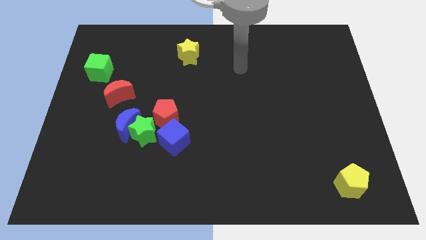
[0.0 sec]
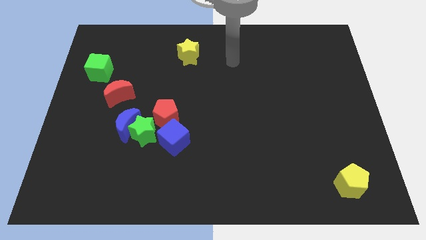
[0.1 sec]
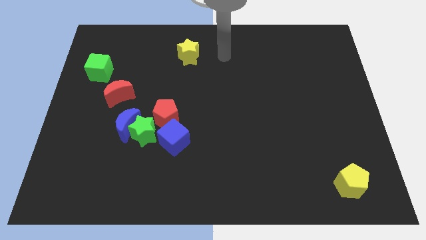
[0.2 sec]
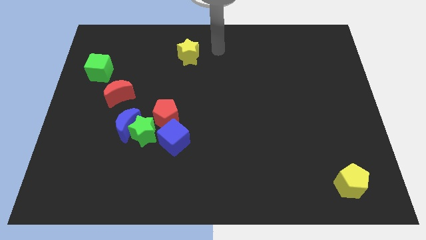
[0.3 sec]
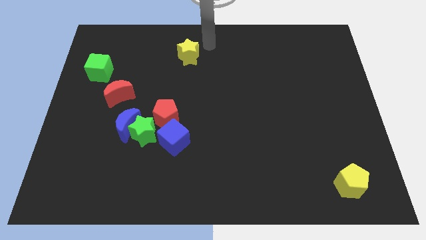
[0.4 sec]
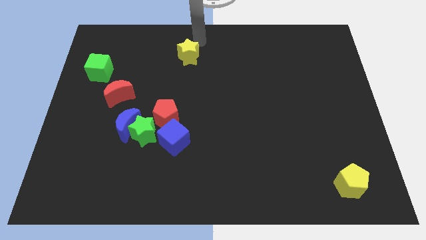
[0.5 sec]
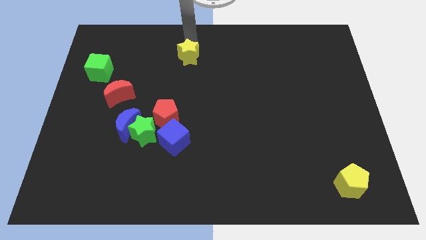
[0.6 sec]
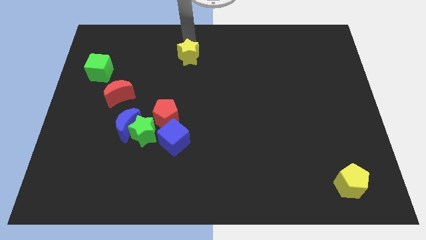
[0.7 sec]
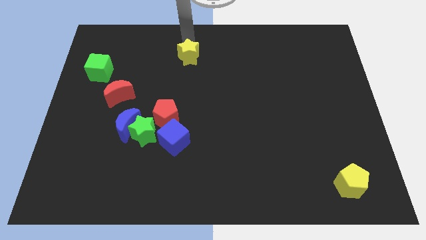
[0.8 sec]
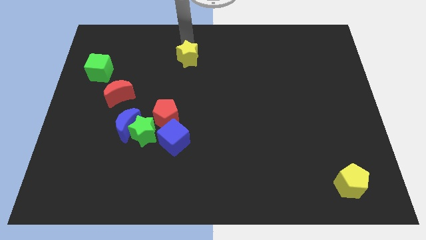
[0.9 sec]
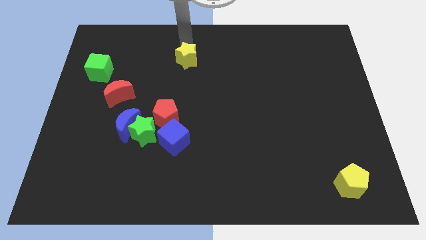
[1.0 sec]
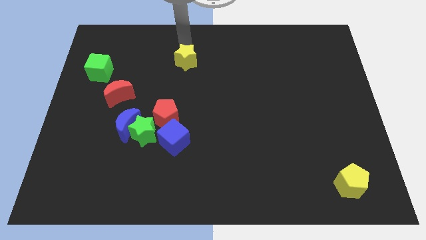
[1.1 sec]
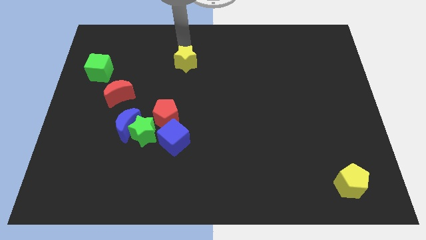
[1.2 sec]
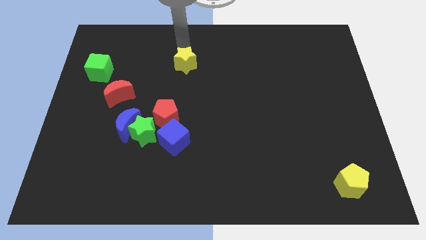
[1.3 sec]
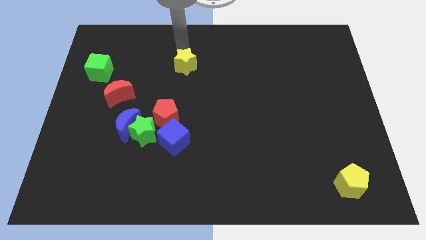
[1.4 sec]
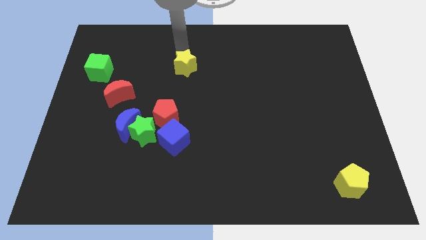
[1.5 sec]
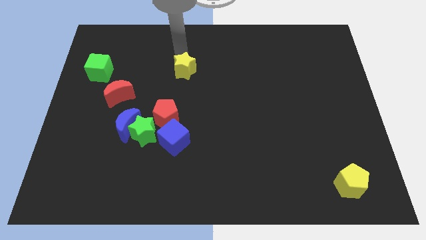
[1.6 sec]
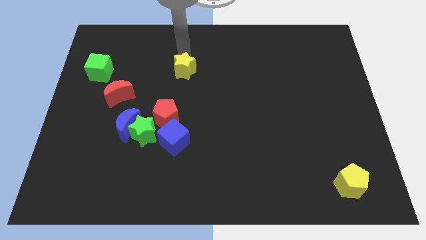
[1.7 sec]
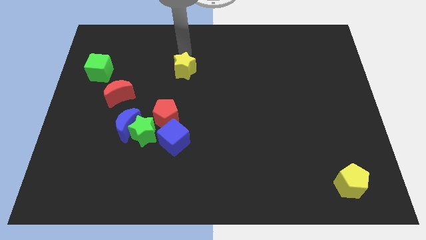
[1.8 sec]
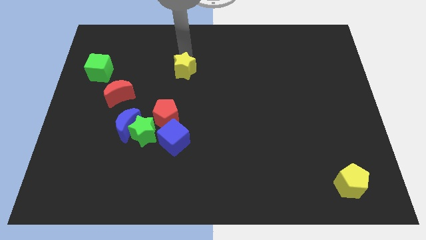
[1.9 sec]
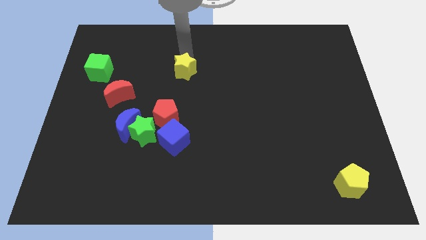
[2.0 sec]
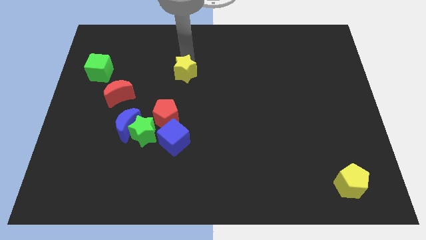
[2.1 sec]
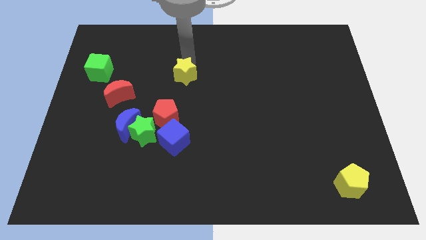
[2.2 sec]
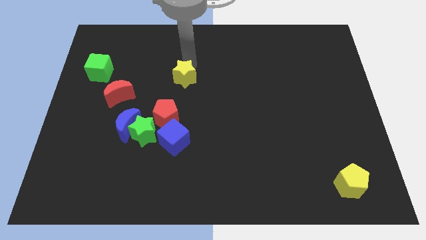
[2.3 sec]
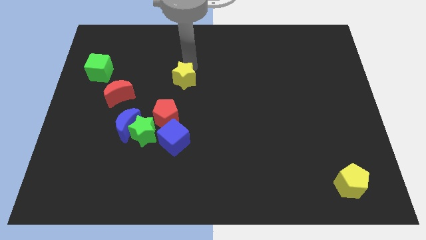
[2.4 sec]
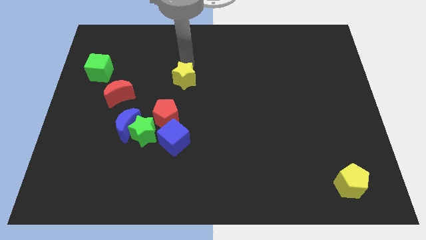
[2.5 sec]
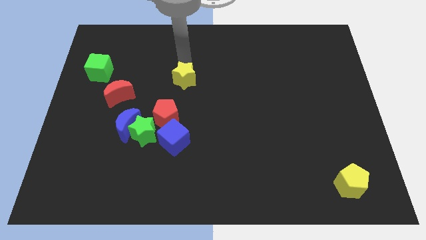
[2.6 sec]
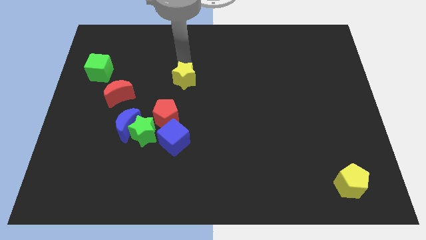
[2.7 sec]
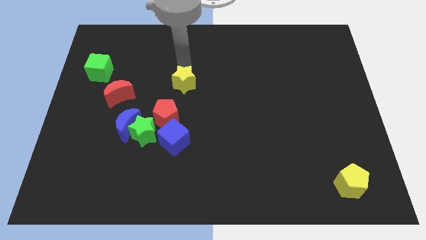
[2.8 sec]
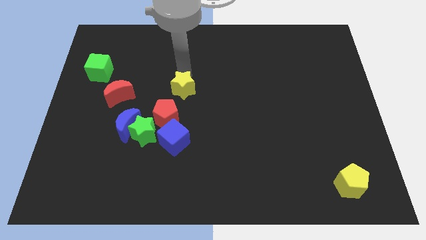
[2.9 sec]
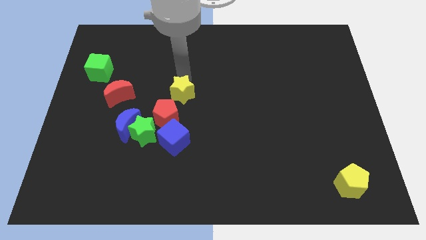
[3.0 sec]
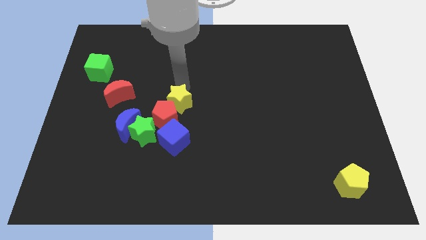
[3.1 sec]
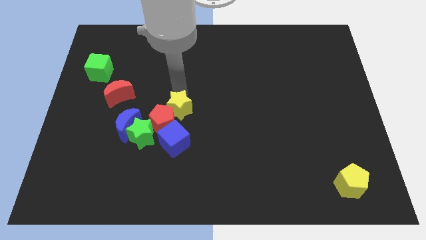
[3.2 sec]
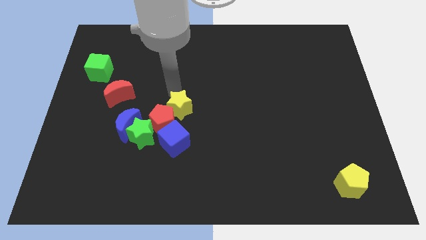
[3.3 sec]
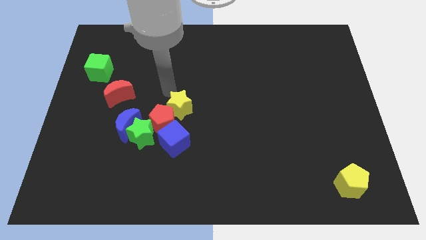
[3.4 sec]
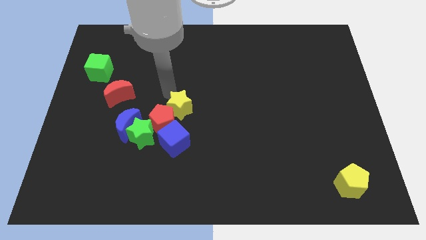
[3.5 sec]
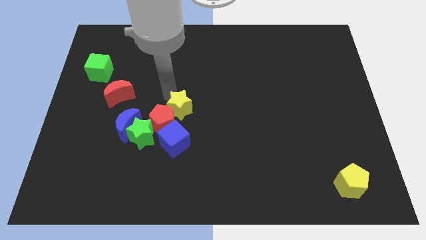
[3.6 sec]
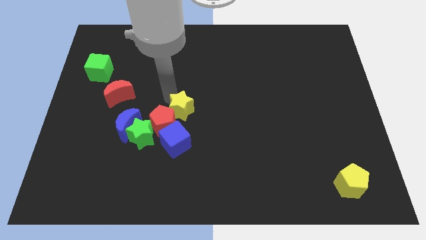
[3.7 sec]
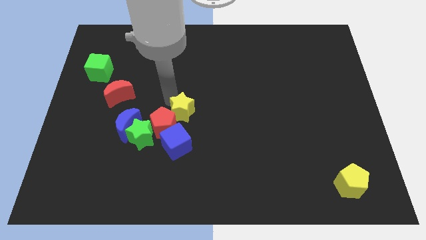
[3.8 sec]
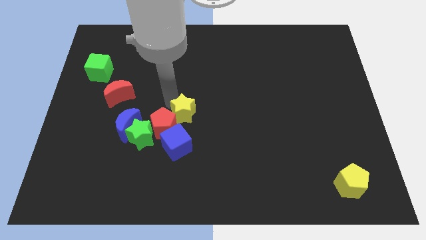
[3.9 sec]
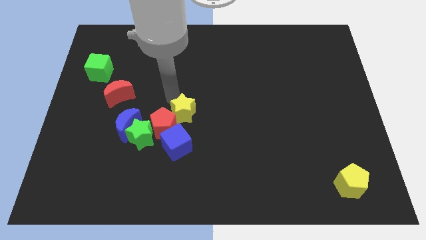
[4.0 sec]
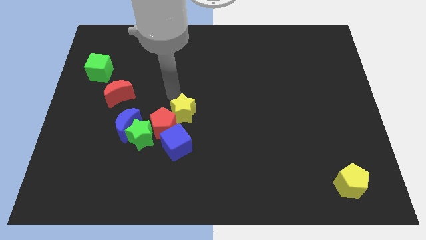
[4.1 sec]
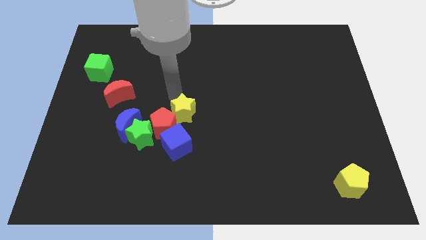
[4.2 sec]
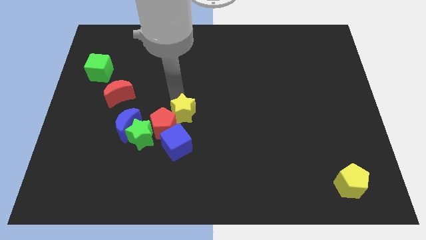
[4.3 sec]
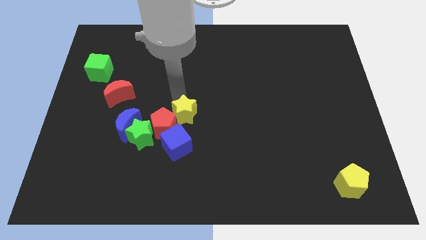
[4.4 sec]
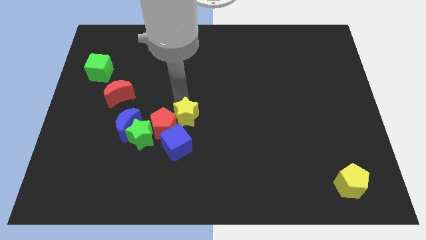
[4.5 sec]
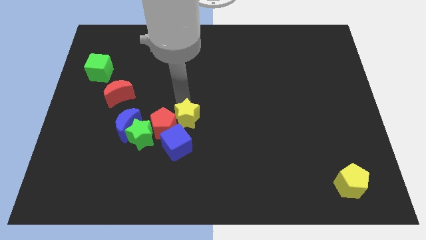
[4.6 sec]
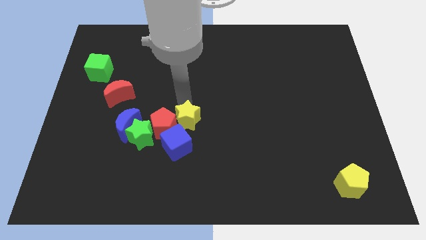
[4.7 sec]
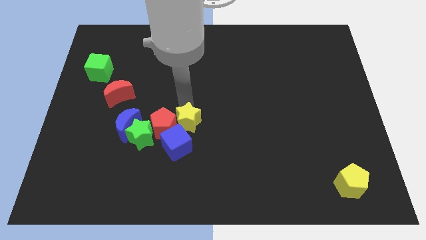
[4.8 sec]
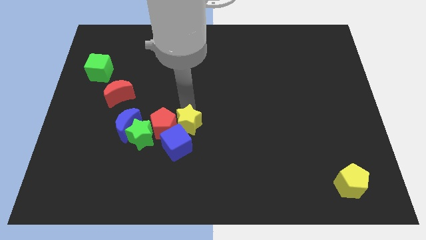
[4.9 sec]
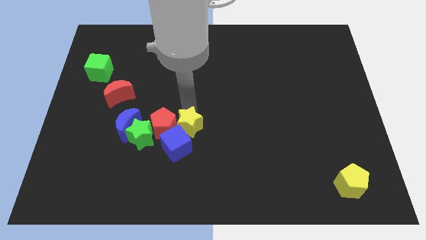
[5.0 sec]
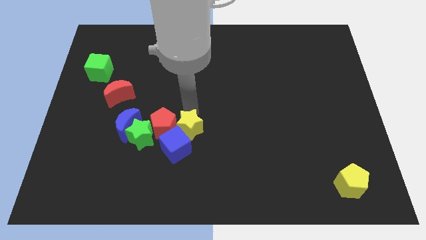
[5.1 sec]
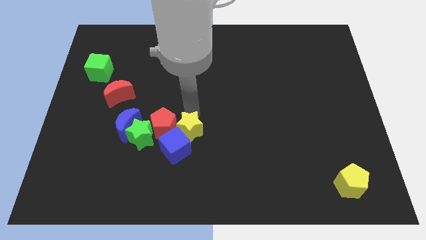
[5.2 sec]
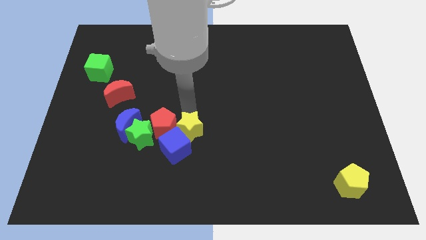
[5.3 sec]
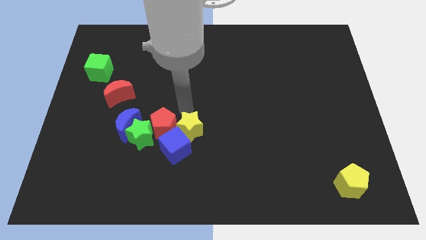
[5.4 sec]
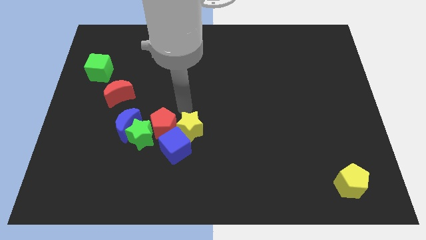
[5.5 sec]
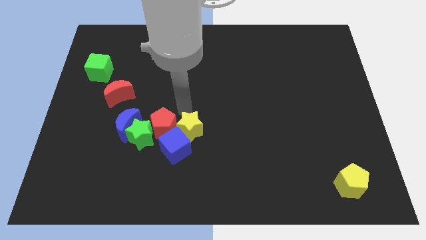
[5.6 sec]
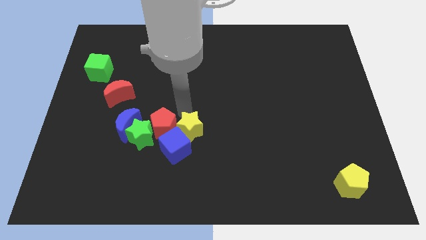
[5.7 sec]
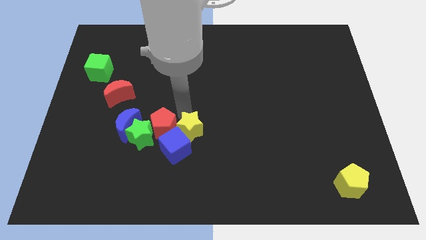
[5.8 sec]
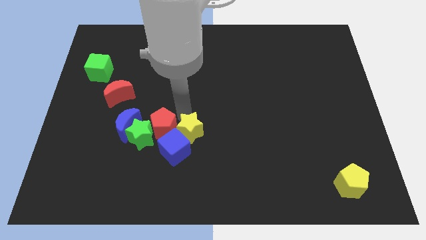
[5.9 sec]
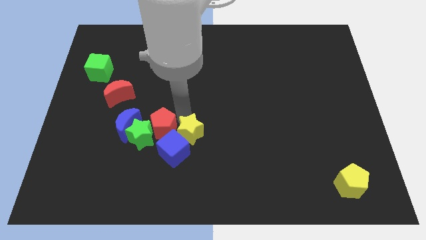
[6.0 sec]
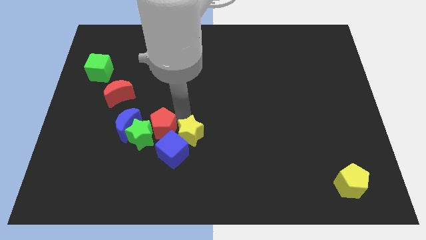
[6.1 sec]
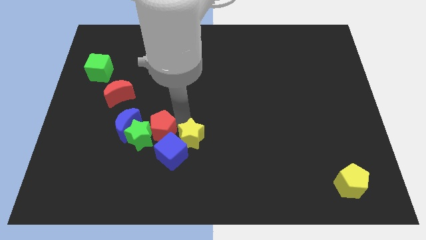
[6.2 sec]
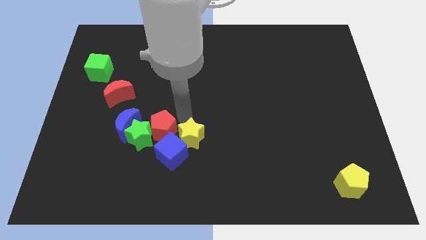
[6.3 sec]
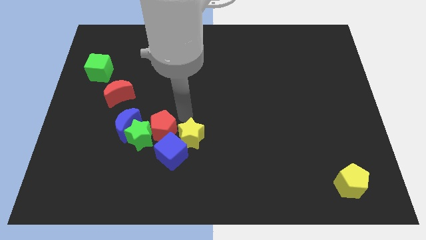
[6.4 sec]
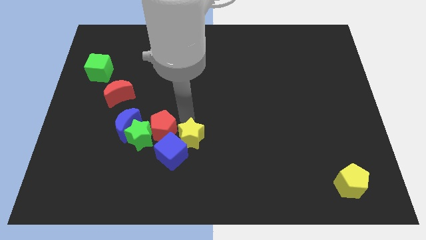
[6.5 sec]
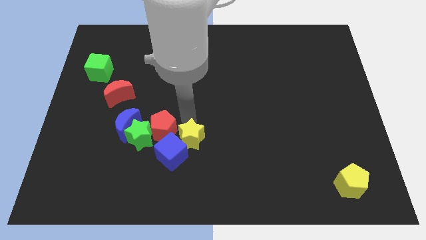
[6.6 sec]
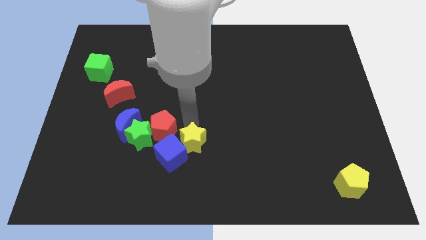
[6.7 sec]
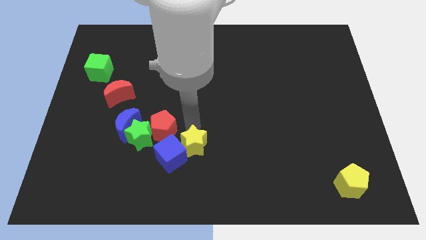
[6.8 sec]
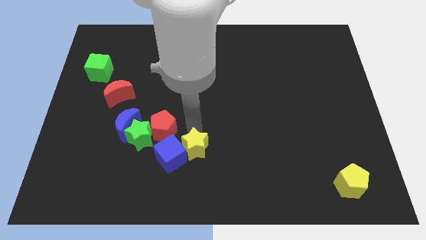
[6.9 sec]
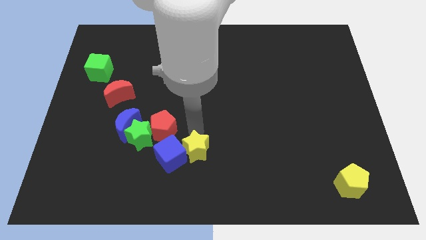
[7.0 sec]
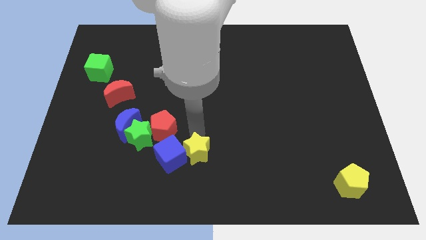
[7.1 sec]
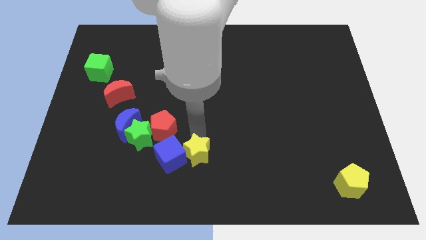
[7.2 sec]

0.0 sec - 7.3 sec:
push the yellow star to the bottom side
